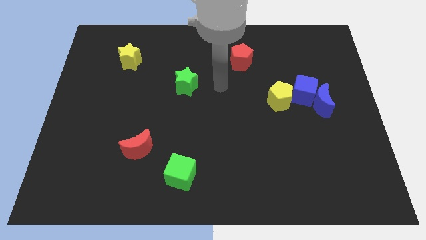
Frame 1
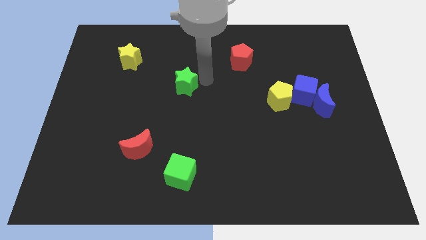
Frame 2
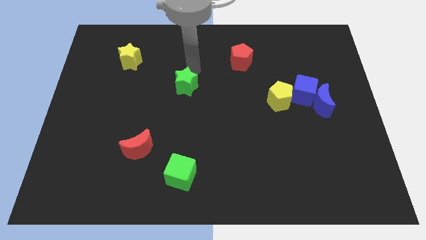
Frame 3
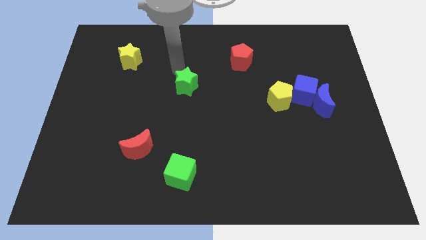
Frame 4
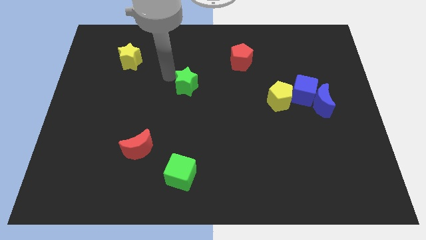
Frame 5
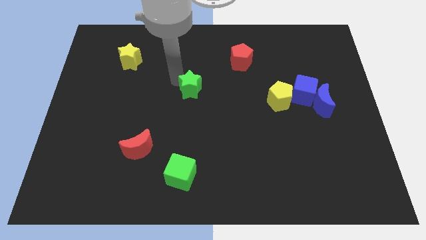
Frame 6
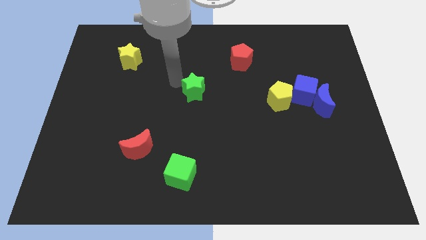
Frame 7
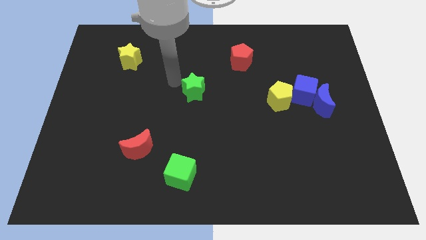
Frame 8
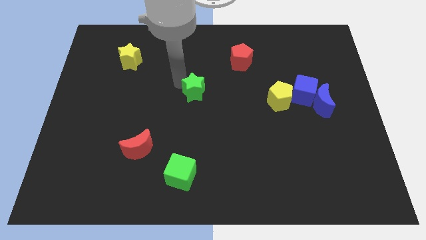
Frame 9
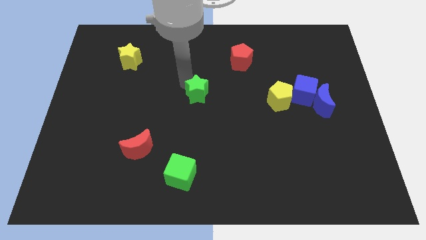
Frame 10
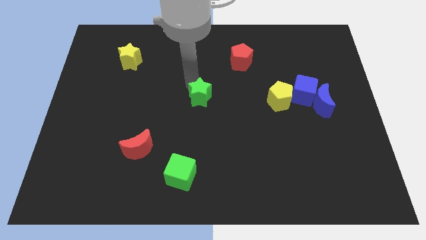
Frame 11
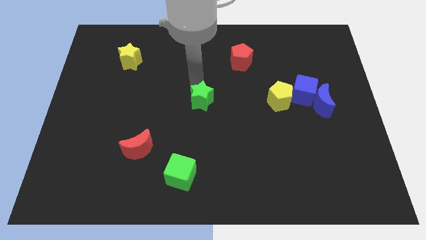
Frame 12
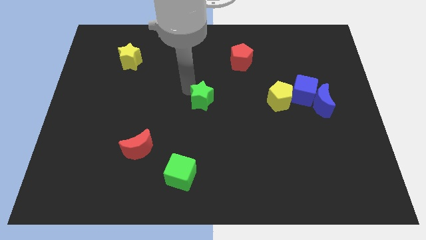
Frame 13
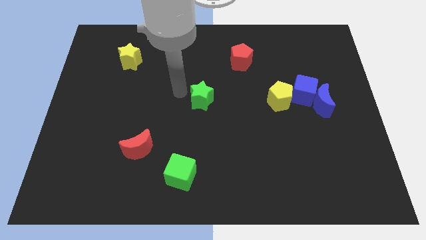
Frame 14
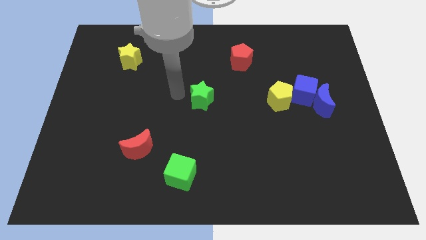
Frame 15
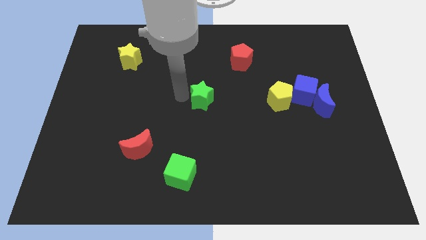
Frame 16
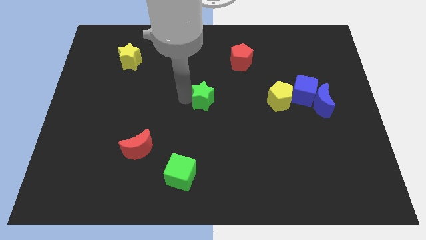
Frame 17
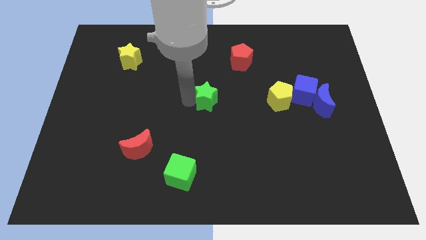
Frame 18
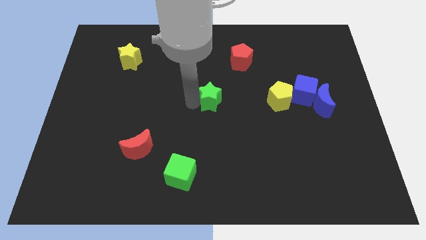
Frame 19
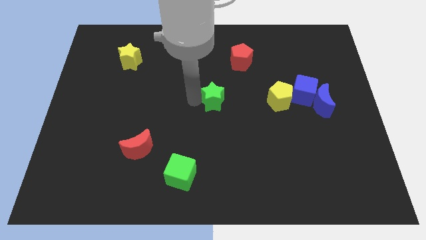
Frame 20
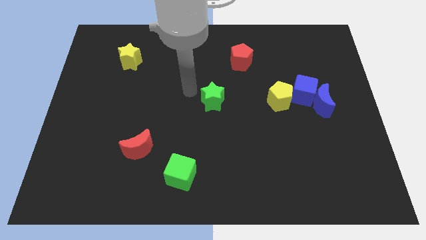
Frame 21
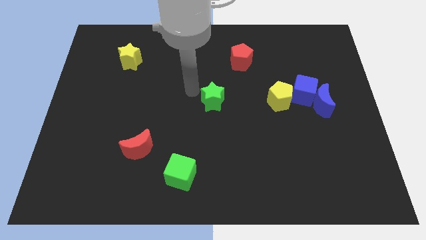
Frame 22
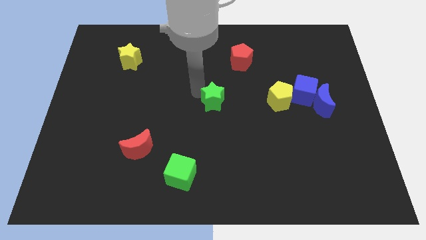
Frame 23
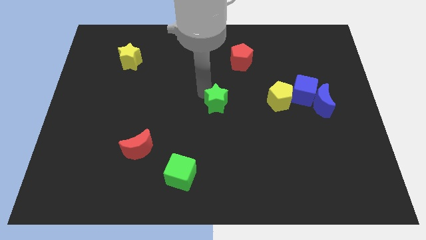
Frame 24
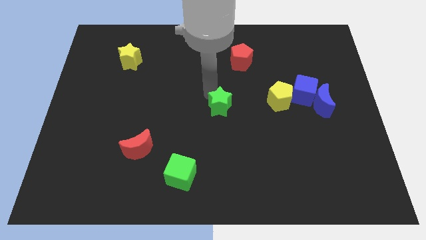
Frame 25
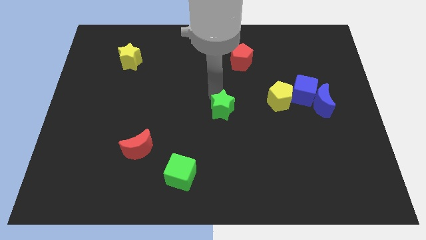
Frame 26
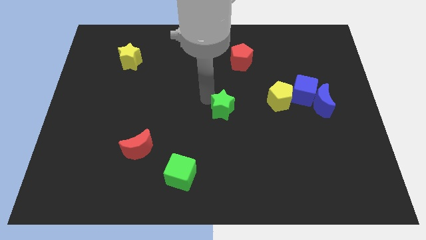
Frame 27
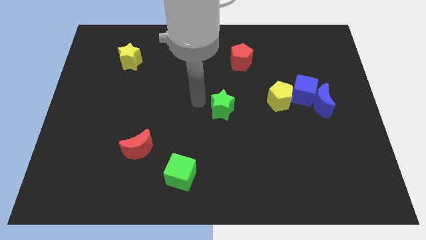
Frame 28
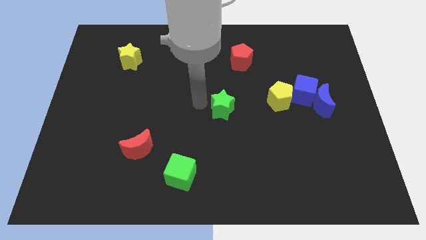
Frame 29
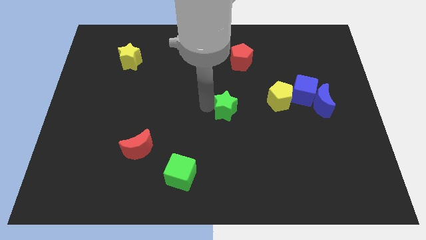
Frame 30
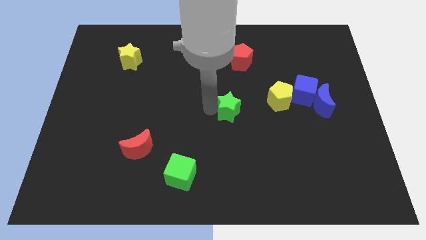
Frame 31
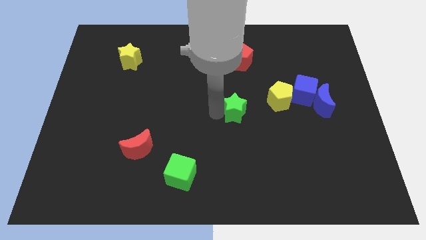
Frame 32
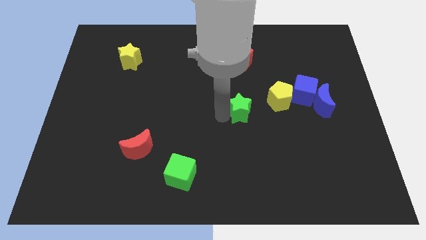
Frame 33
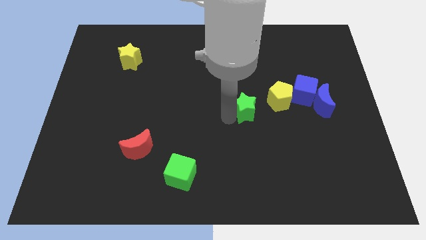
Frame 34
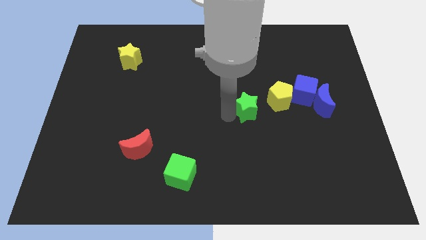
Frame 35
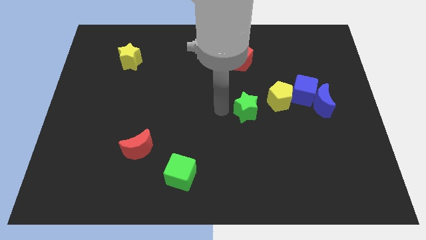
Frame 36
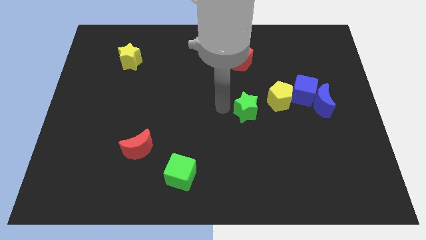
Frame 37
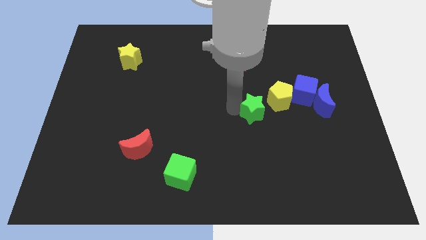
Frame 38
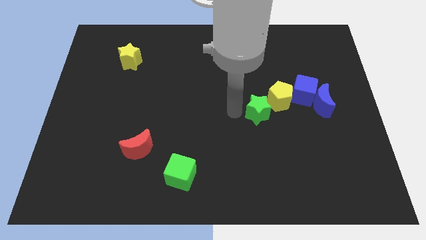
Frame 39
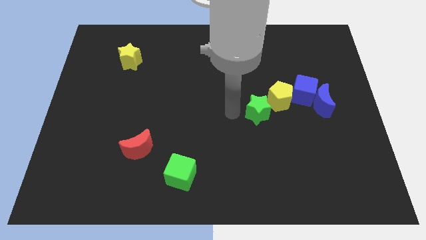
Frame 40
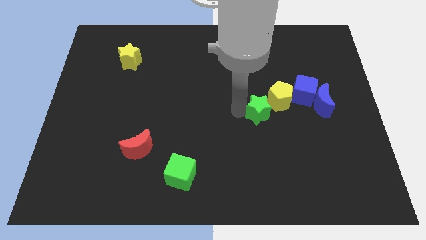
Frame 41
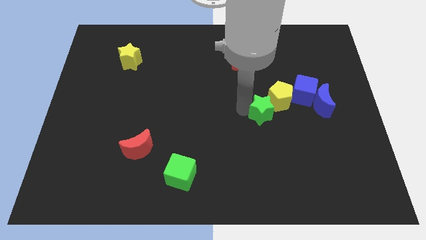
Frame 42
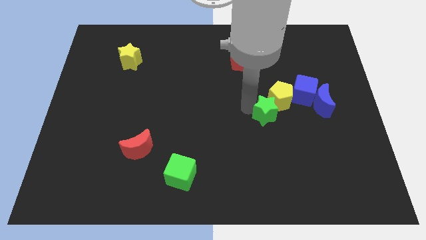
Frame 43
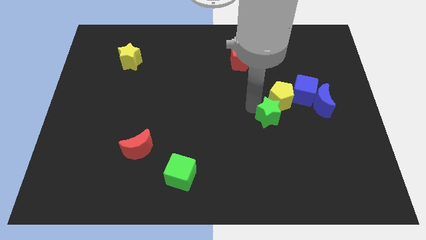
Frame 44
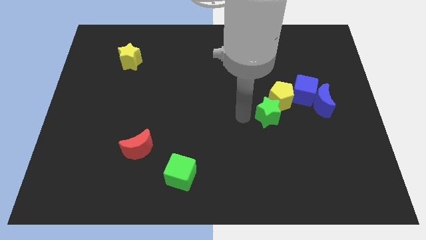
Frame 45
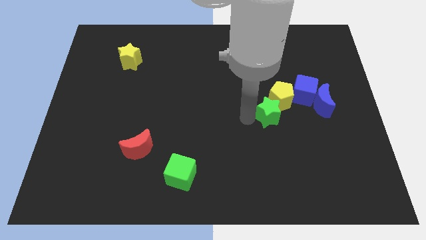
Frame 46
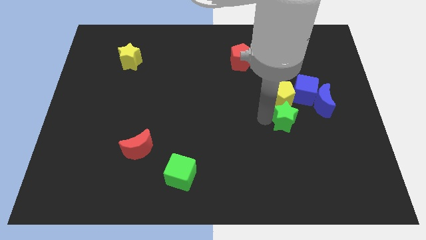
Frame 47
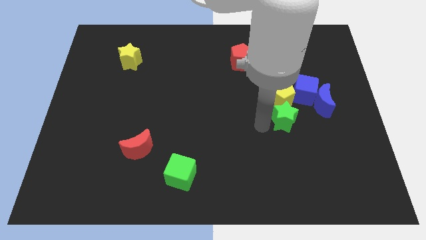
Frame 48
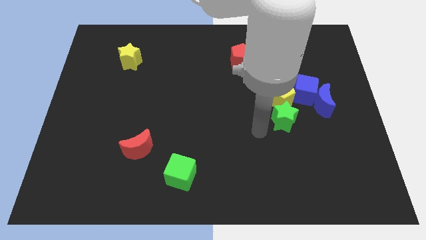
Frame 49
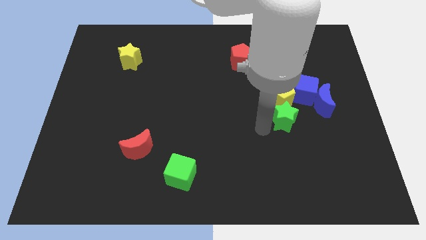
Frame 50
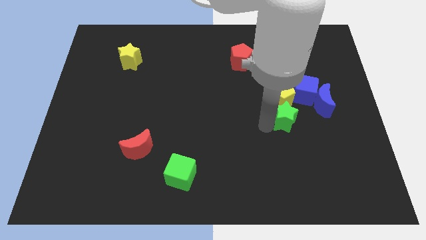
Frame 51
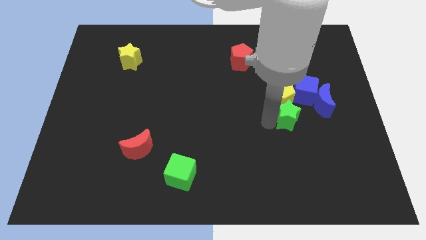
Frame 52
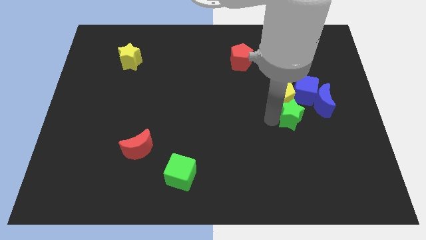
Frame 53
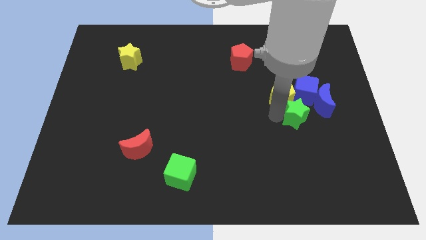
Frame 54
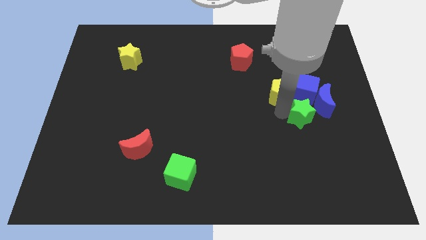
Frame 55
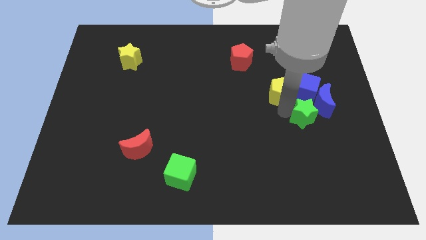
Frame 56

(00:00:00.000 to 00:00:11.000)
move the green star close to the blue moon

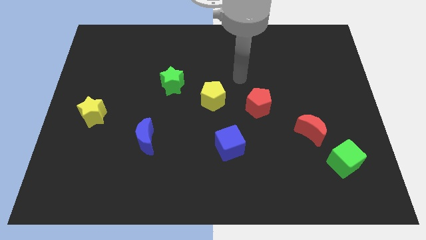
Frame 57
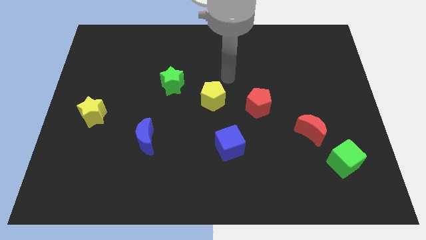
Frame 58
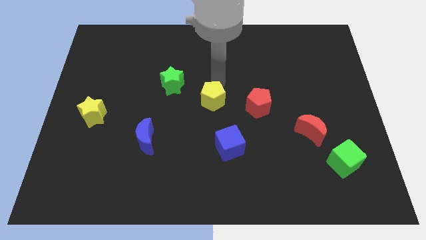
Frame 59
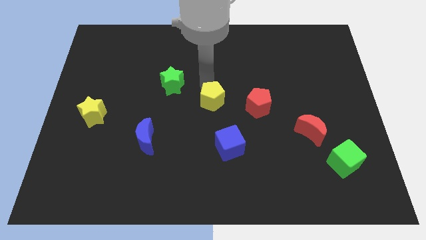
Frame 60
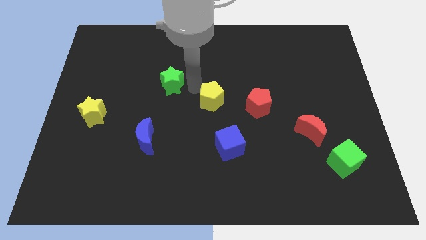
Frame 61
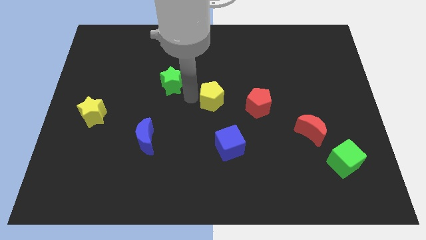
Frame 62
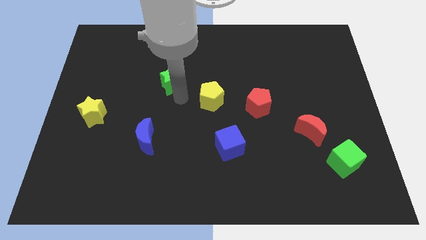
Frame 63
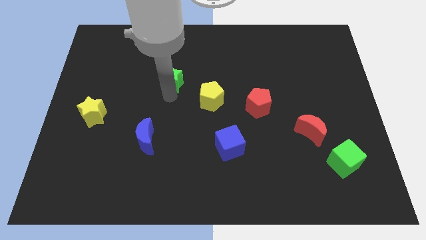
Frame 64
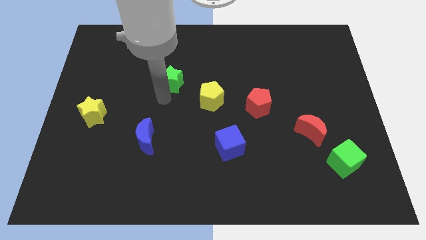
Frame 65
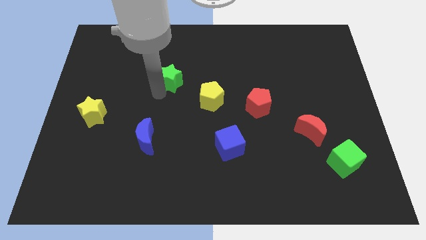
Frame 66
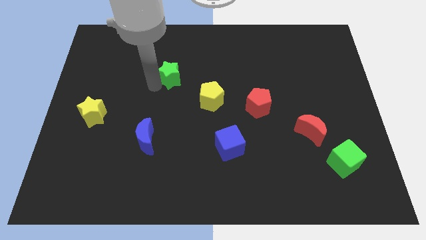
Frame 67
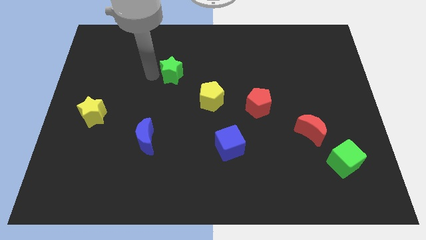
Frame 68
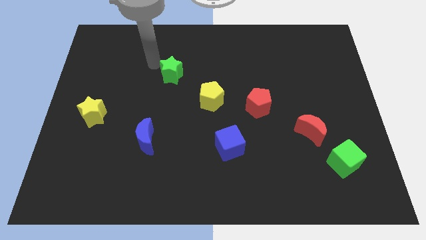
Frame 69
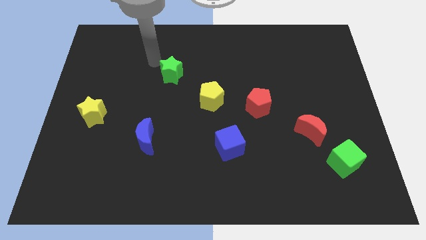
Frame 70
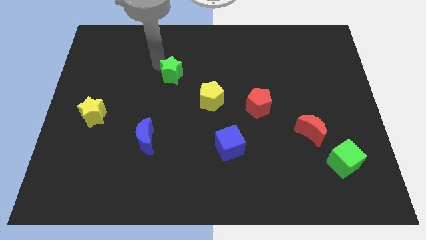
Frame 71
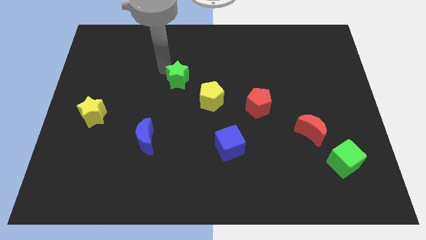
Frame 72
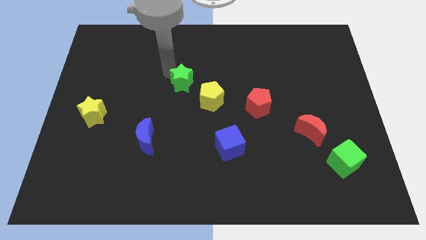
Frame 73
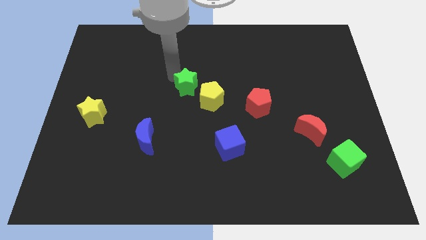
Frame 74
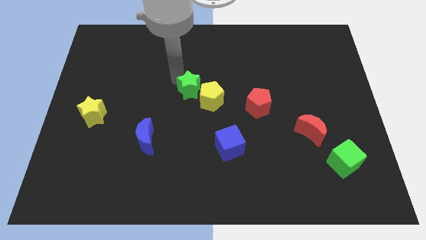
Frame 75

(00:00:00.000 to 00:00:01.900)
slide the green star to the yellow pentagon
